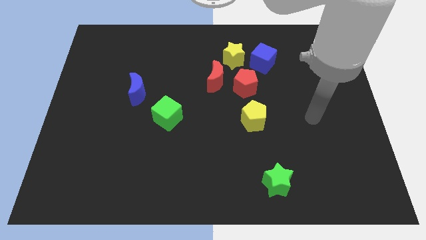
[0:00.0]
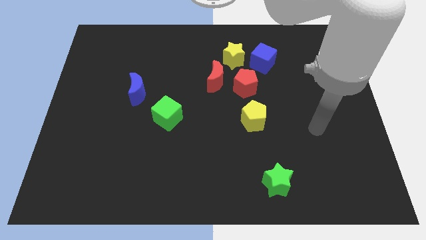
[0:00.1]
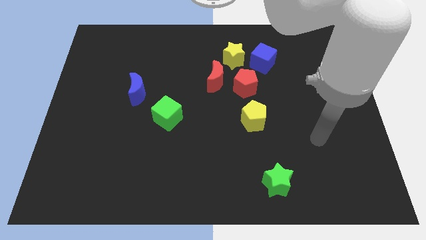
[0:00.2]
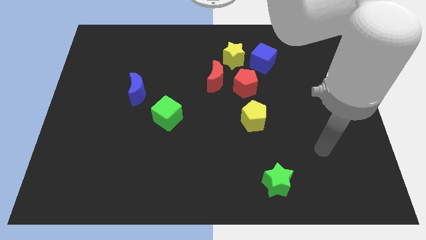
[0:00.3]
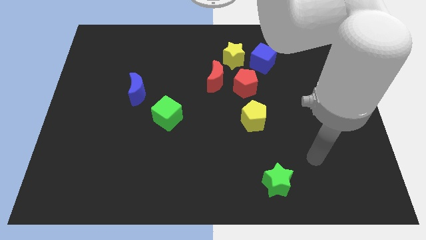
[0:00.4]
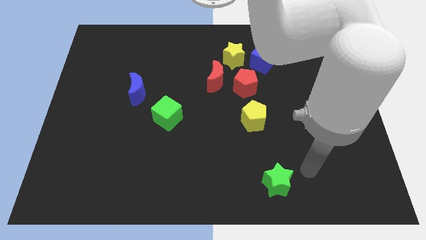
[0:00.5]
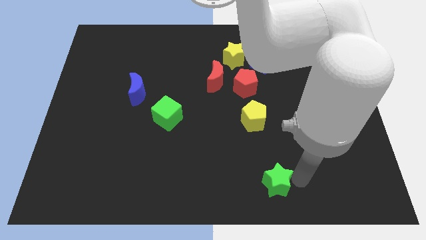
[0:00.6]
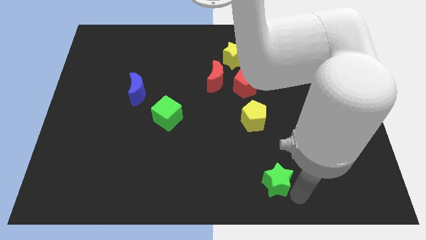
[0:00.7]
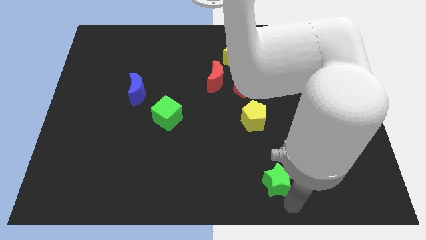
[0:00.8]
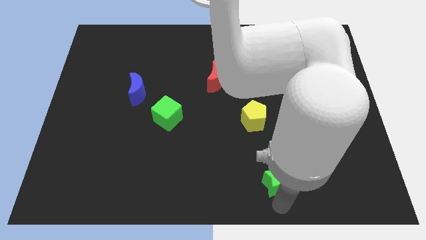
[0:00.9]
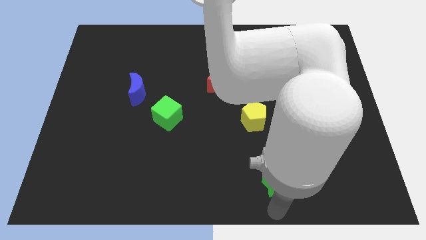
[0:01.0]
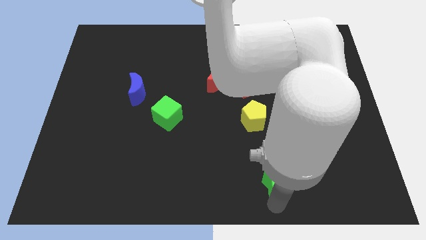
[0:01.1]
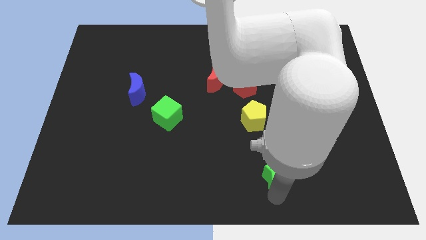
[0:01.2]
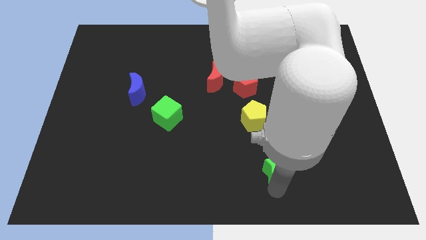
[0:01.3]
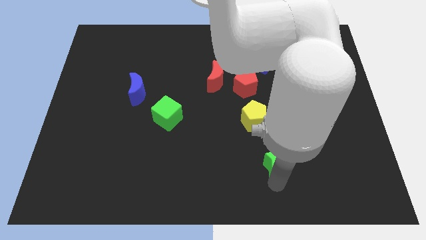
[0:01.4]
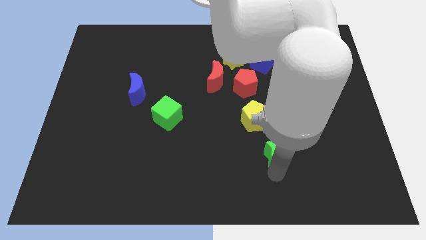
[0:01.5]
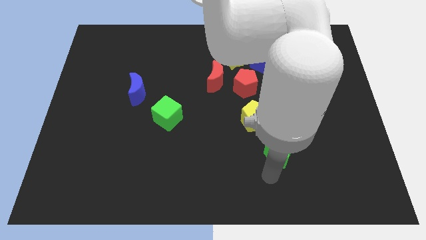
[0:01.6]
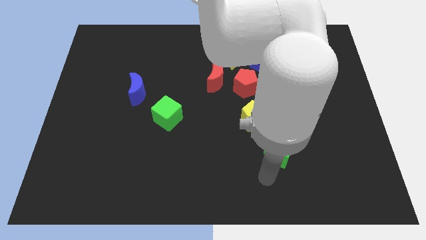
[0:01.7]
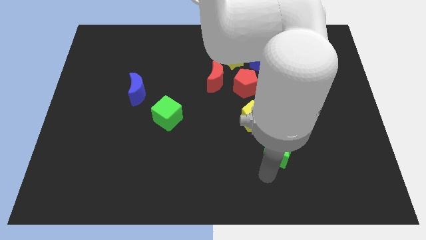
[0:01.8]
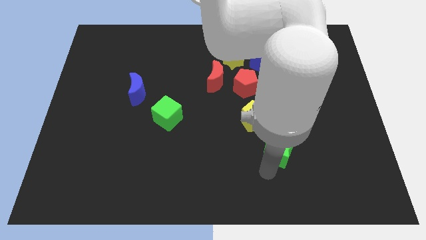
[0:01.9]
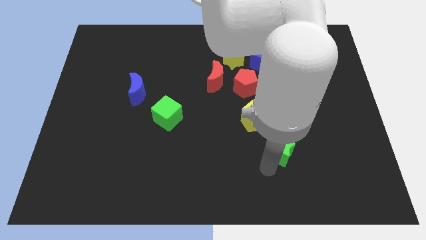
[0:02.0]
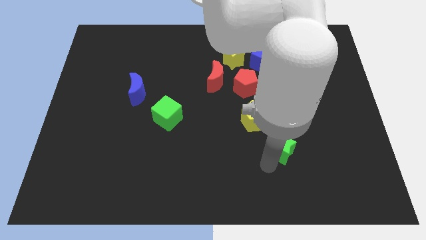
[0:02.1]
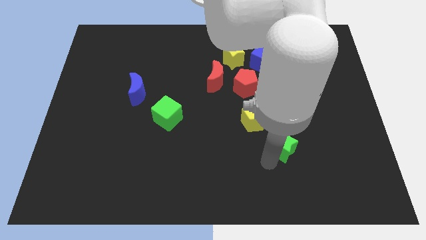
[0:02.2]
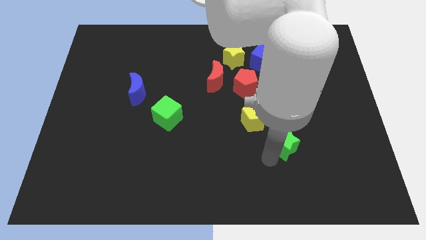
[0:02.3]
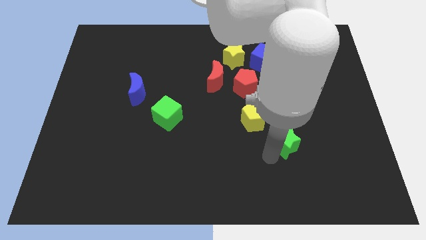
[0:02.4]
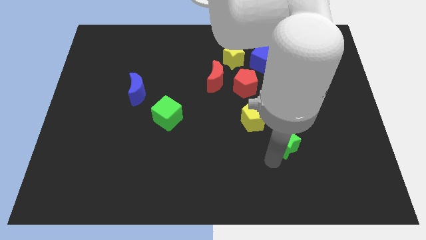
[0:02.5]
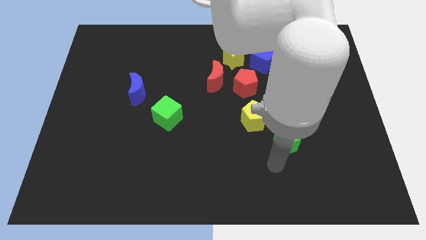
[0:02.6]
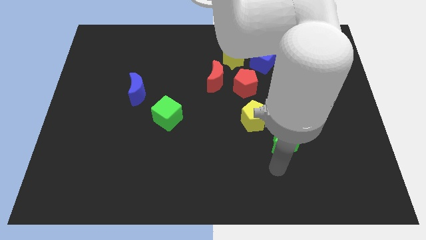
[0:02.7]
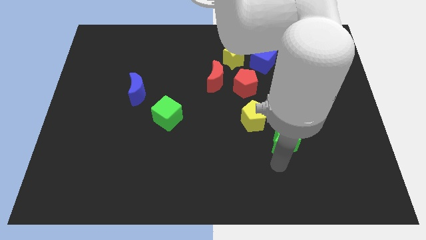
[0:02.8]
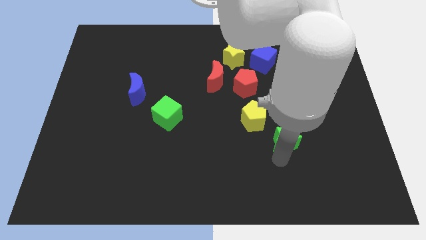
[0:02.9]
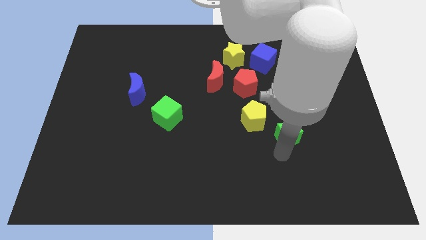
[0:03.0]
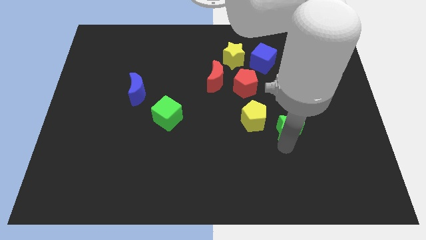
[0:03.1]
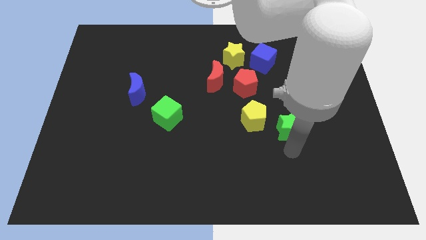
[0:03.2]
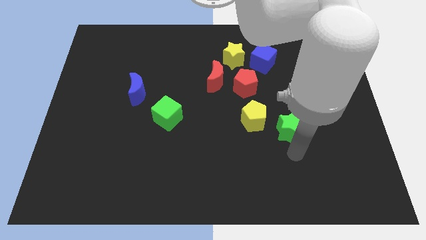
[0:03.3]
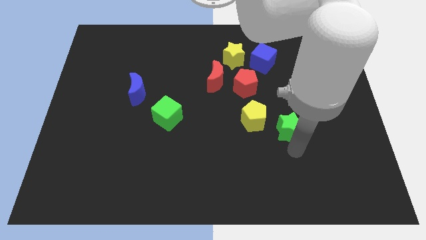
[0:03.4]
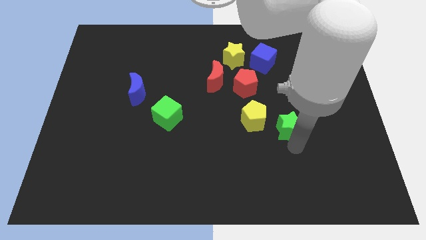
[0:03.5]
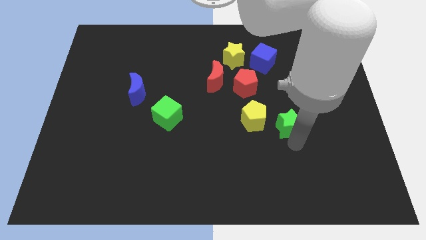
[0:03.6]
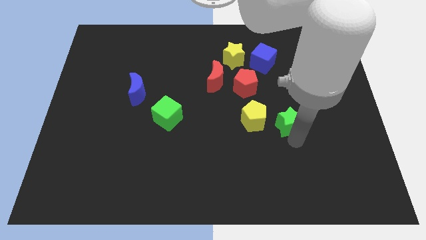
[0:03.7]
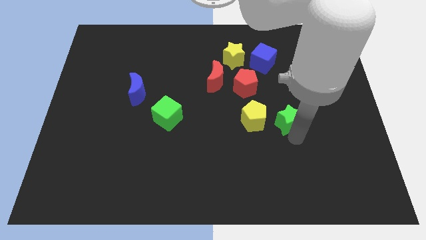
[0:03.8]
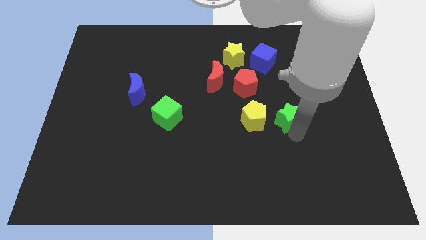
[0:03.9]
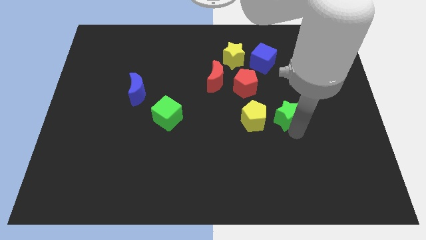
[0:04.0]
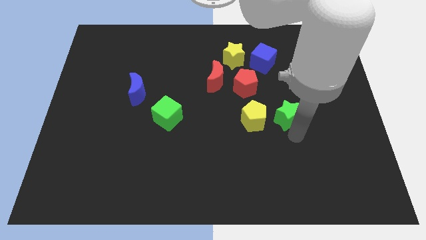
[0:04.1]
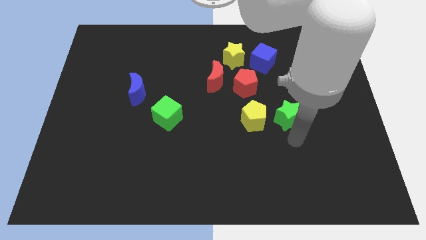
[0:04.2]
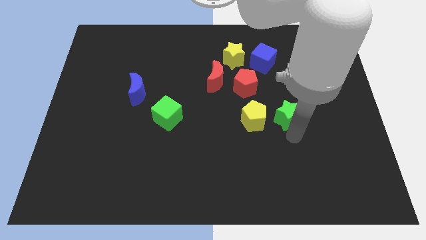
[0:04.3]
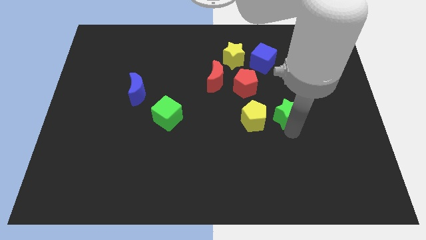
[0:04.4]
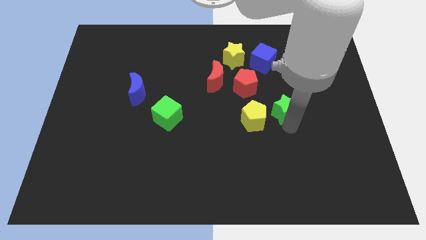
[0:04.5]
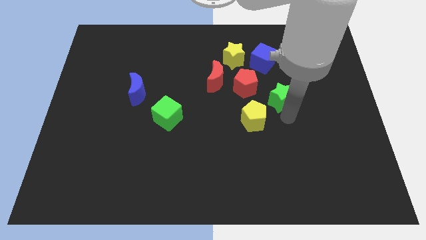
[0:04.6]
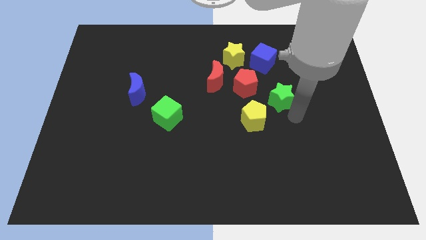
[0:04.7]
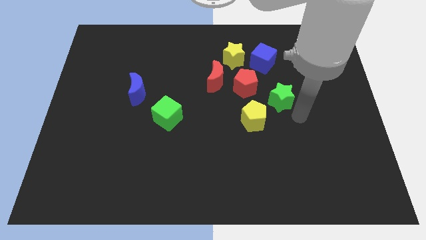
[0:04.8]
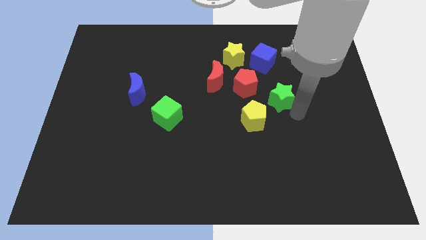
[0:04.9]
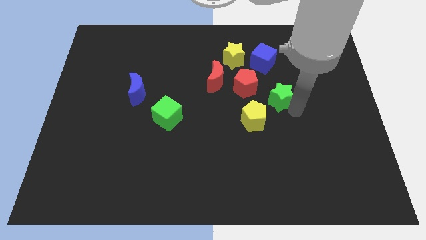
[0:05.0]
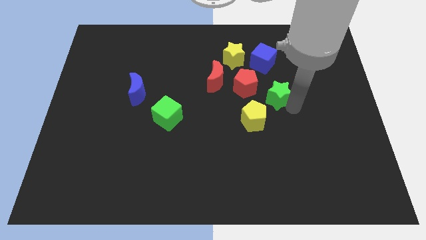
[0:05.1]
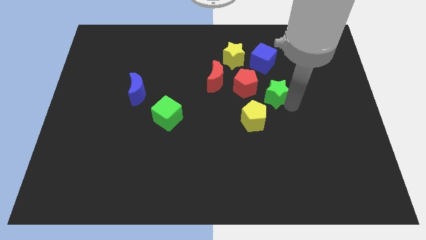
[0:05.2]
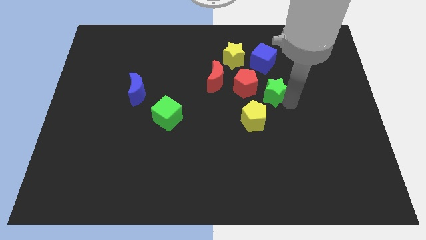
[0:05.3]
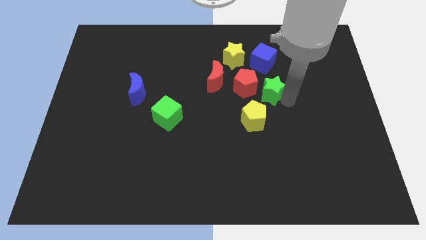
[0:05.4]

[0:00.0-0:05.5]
push the green star to the right of the red moon

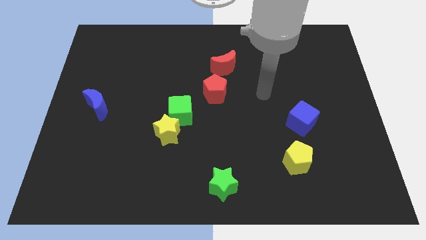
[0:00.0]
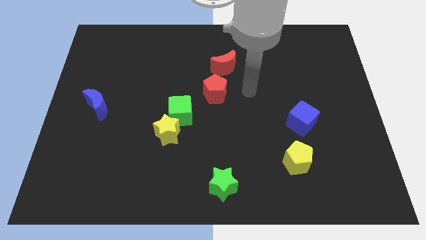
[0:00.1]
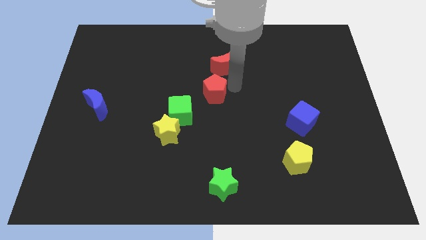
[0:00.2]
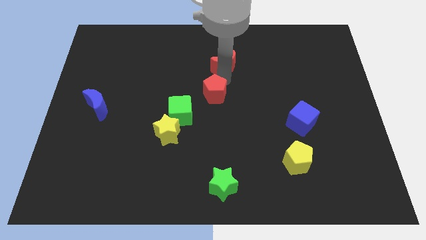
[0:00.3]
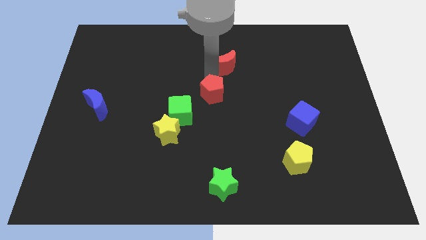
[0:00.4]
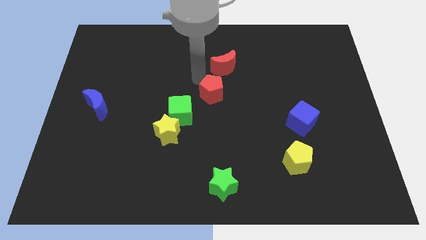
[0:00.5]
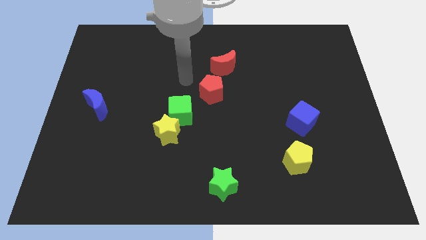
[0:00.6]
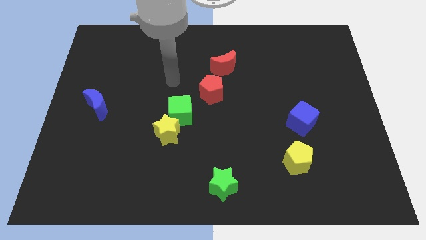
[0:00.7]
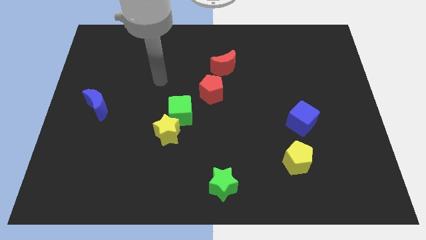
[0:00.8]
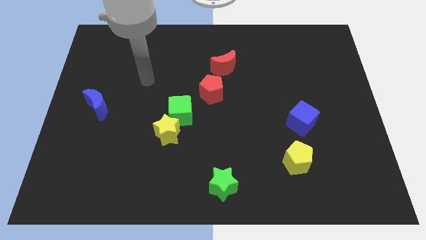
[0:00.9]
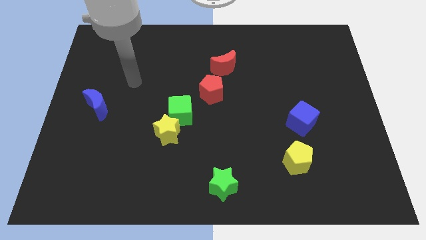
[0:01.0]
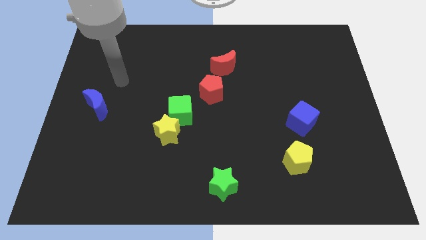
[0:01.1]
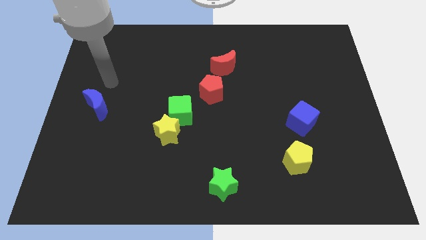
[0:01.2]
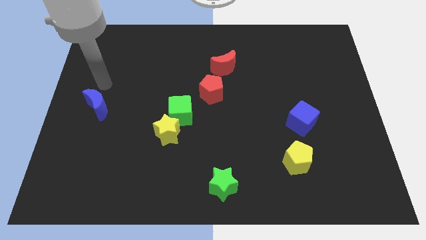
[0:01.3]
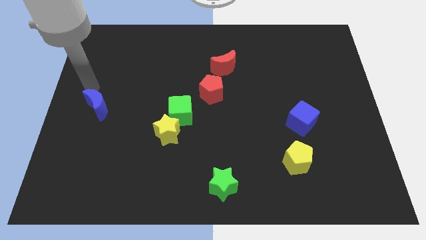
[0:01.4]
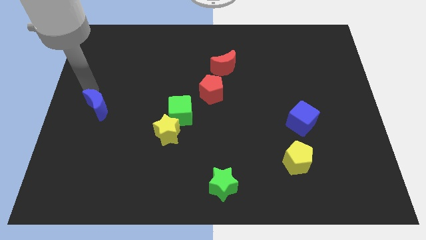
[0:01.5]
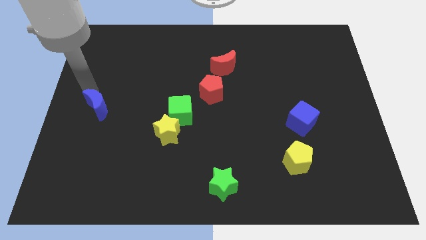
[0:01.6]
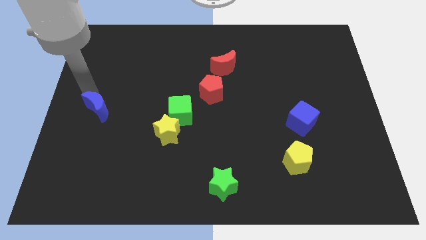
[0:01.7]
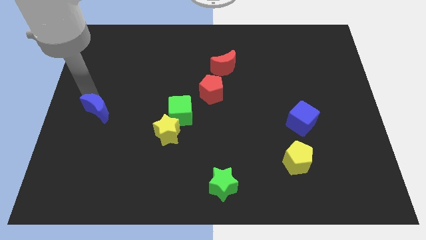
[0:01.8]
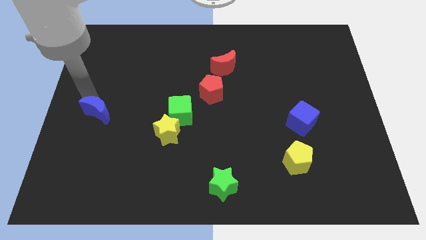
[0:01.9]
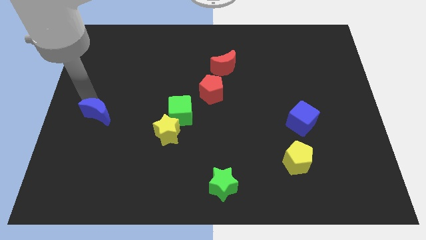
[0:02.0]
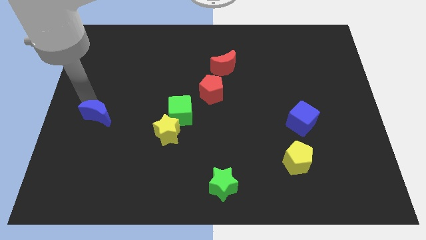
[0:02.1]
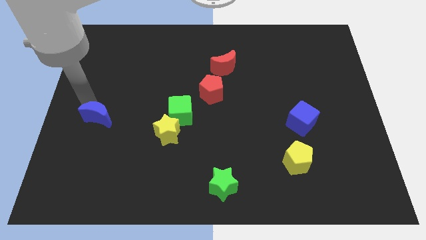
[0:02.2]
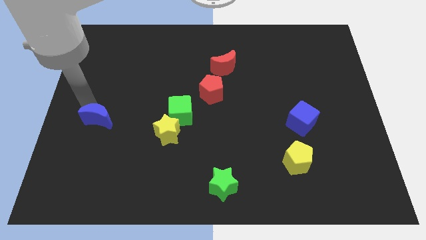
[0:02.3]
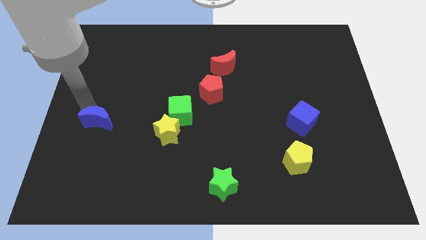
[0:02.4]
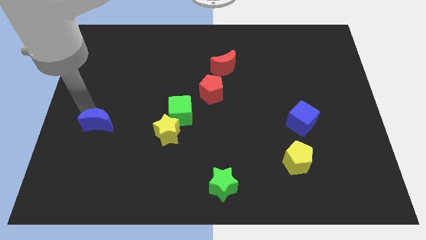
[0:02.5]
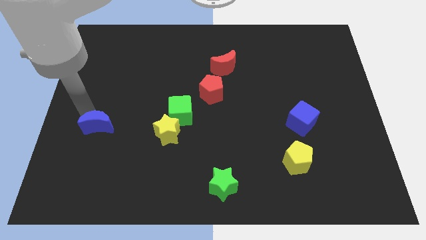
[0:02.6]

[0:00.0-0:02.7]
push the blue moon to the left of the yellow star

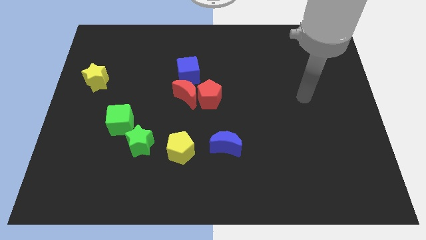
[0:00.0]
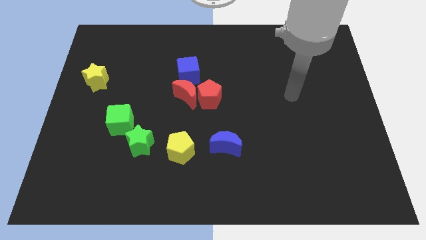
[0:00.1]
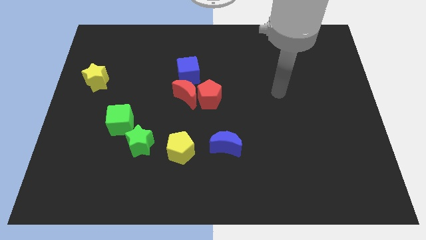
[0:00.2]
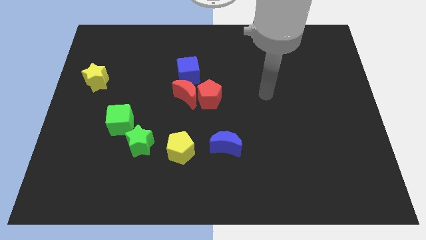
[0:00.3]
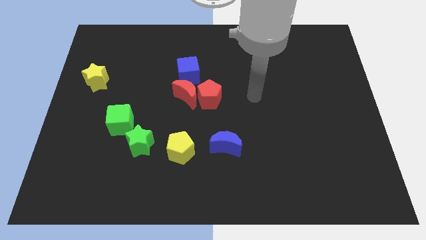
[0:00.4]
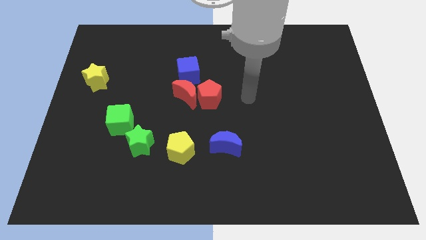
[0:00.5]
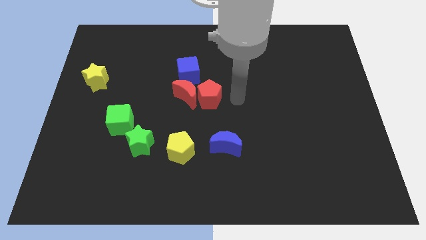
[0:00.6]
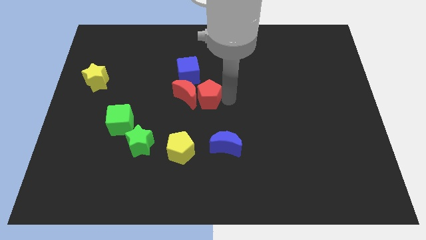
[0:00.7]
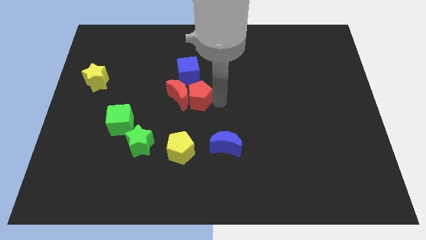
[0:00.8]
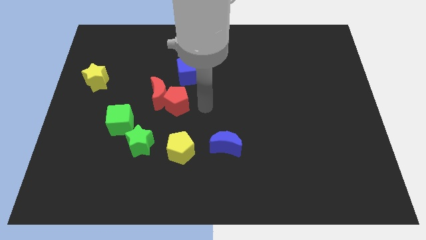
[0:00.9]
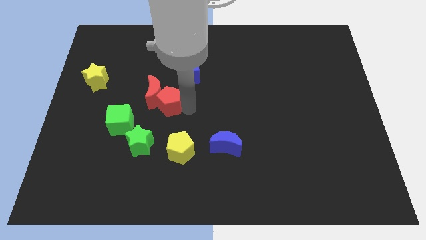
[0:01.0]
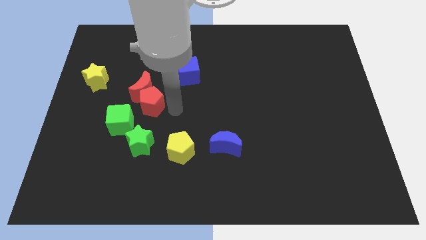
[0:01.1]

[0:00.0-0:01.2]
slide the red moon right of the yellow star
